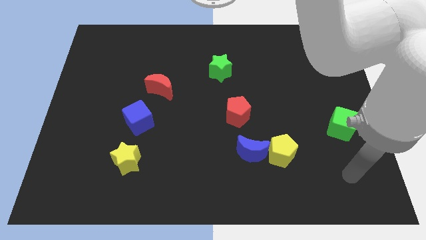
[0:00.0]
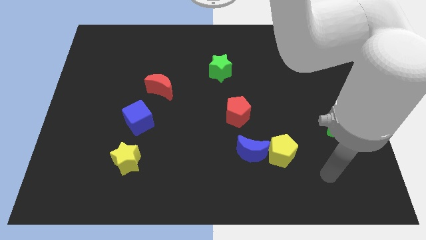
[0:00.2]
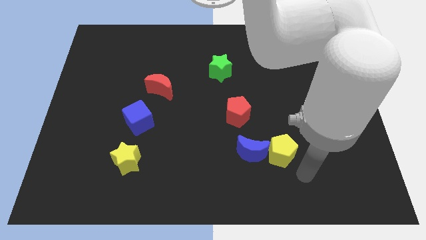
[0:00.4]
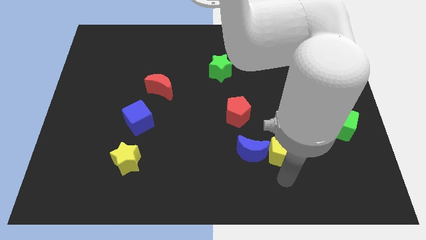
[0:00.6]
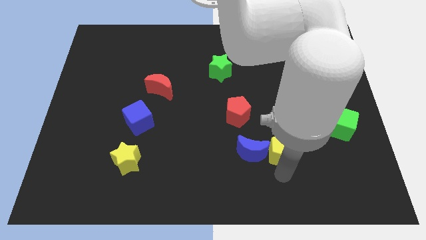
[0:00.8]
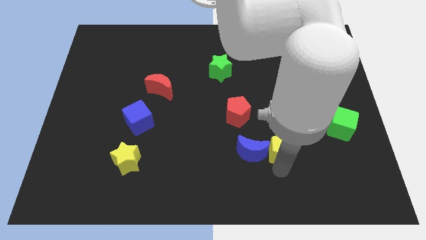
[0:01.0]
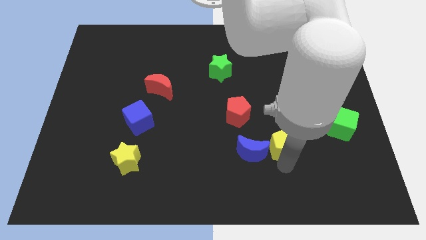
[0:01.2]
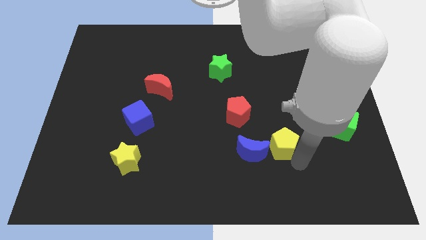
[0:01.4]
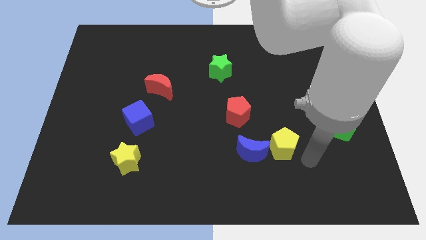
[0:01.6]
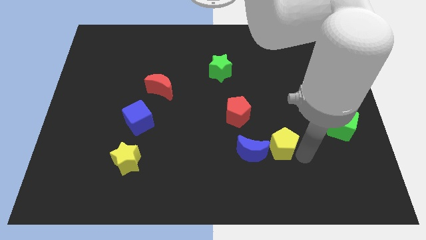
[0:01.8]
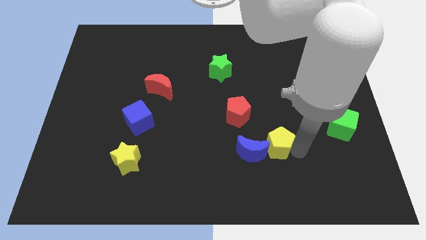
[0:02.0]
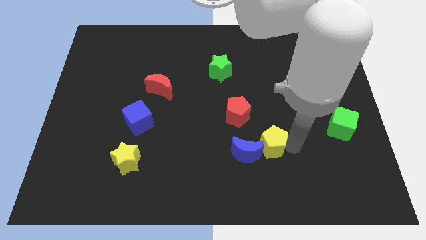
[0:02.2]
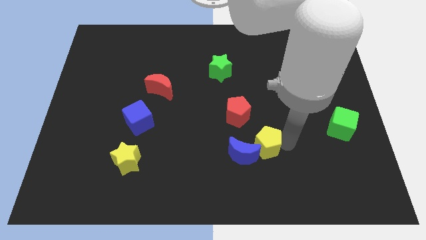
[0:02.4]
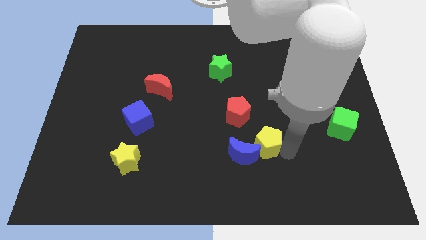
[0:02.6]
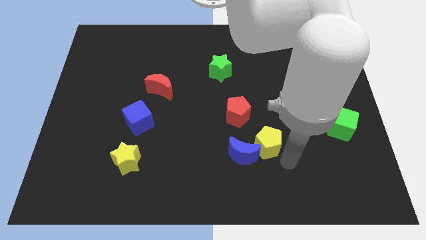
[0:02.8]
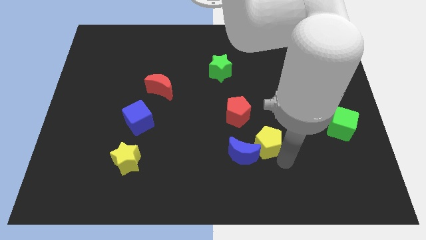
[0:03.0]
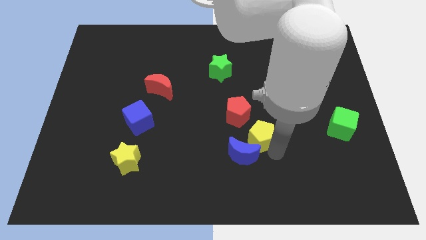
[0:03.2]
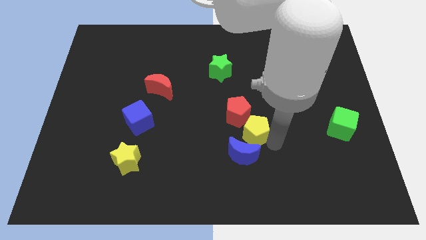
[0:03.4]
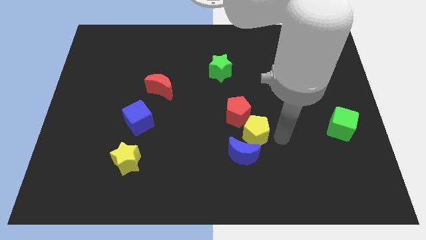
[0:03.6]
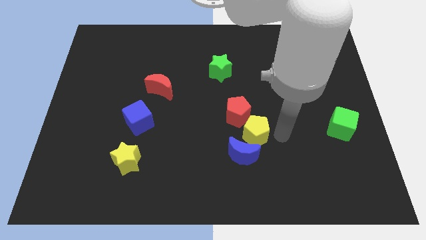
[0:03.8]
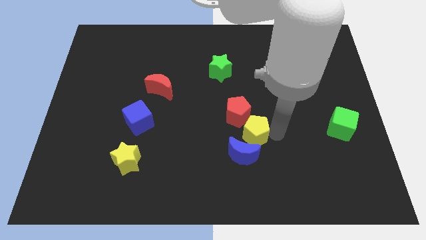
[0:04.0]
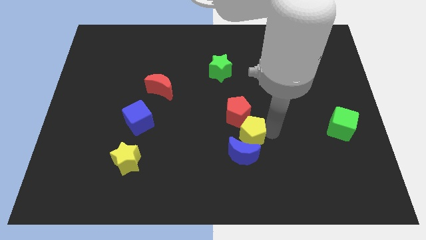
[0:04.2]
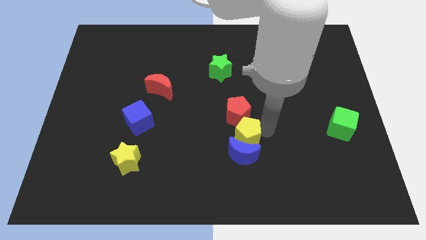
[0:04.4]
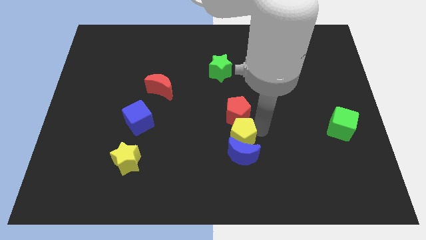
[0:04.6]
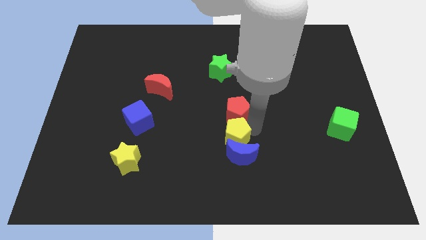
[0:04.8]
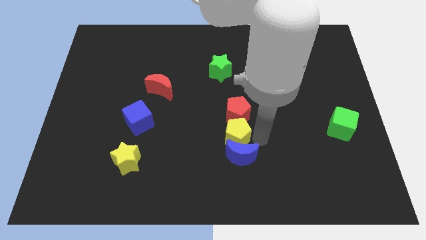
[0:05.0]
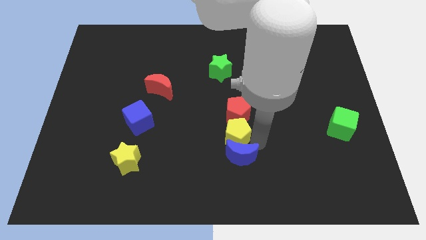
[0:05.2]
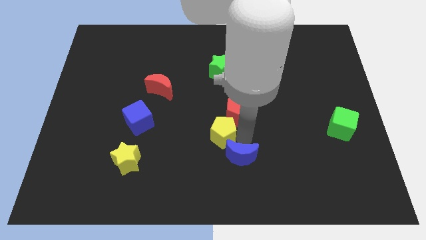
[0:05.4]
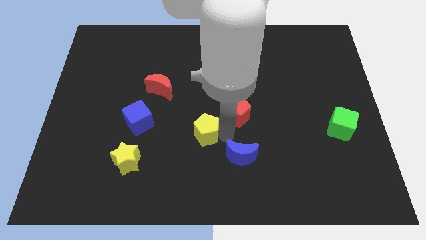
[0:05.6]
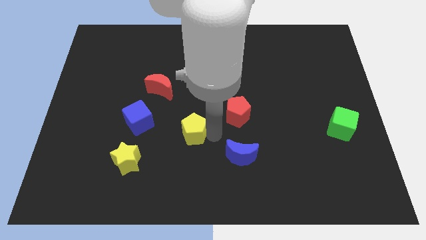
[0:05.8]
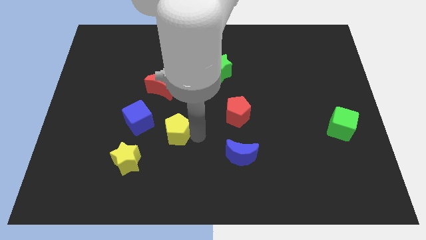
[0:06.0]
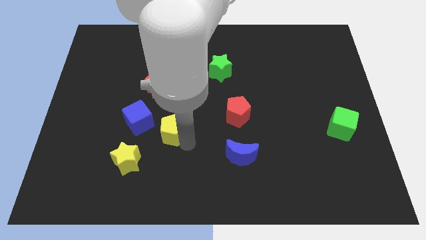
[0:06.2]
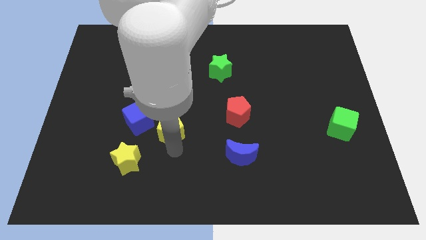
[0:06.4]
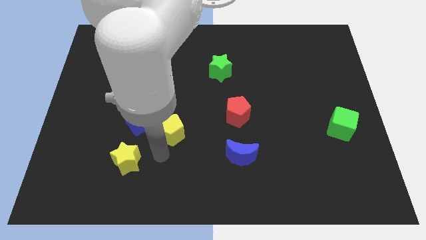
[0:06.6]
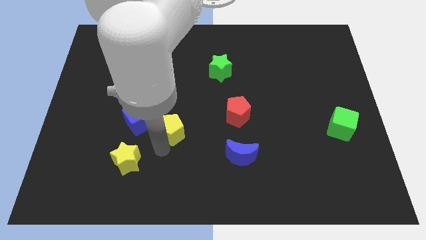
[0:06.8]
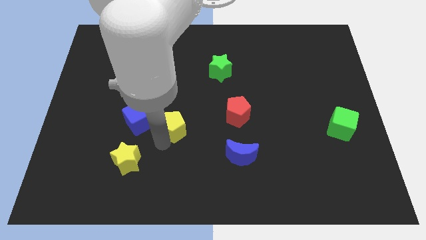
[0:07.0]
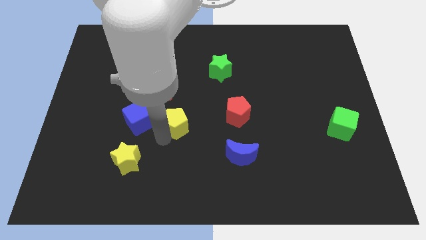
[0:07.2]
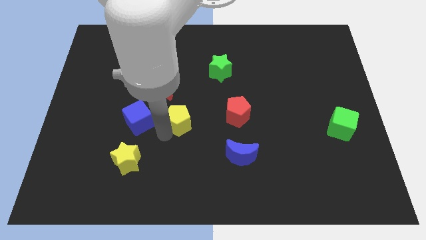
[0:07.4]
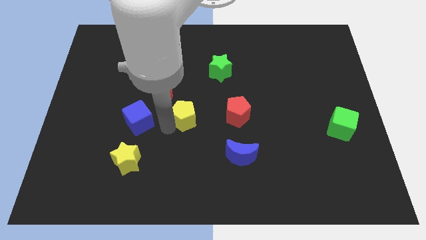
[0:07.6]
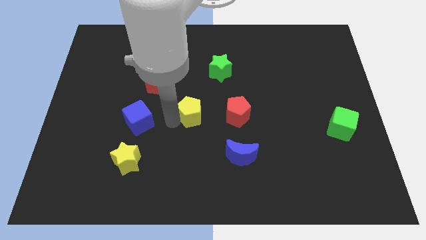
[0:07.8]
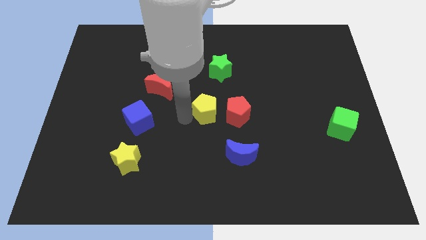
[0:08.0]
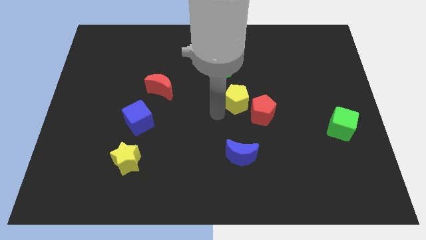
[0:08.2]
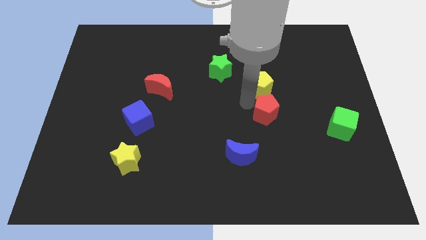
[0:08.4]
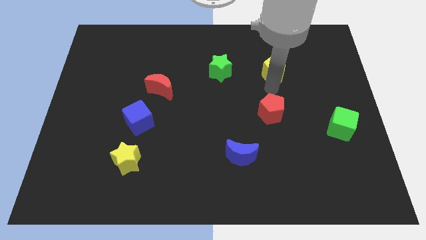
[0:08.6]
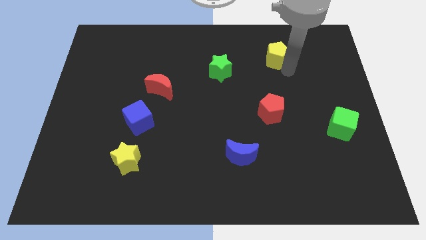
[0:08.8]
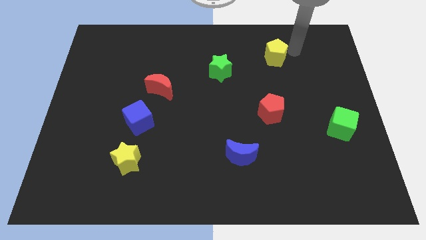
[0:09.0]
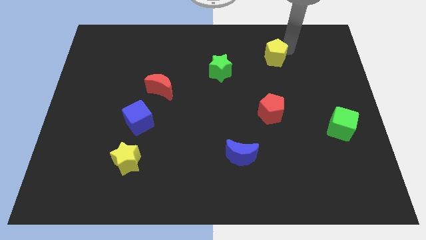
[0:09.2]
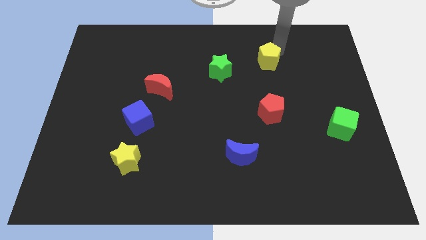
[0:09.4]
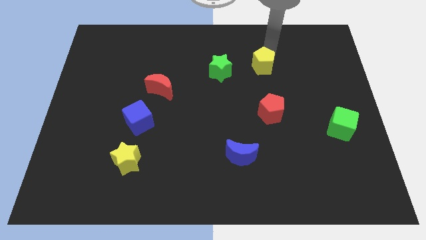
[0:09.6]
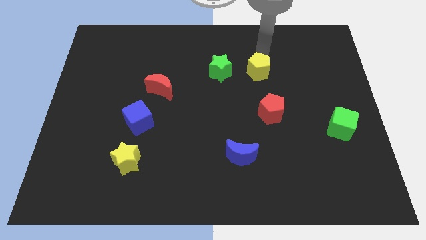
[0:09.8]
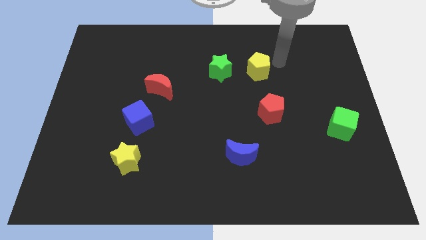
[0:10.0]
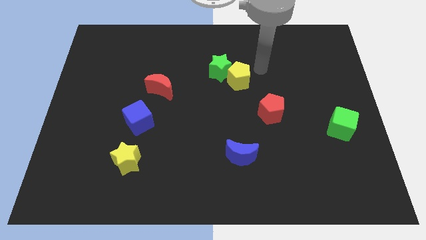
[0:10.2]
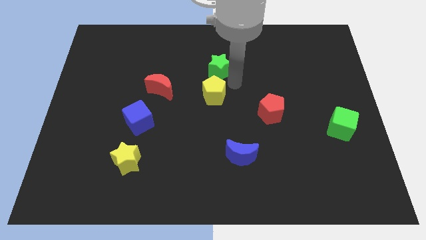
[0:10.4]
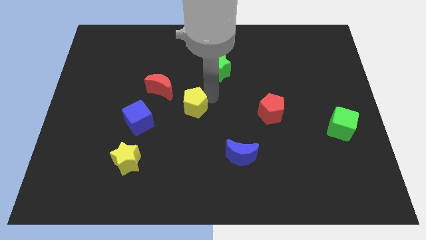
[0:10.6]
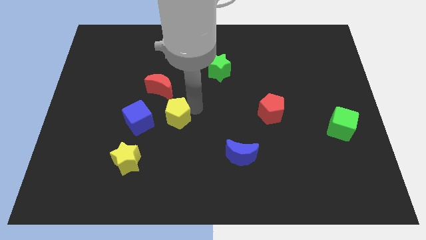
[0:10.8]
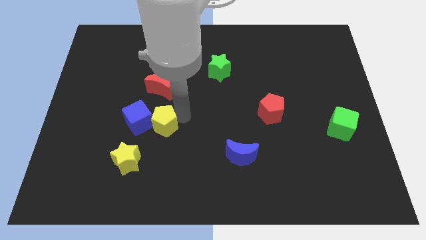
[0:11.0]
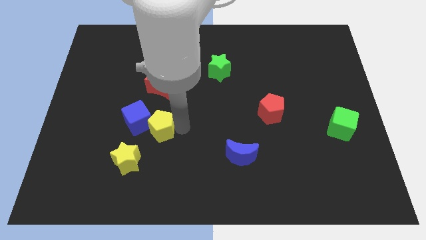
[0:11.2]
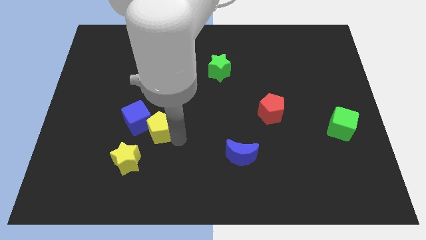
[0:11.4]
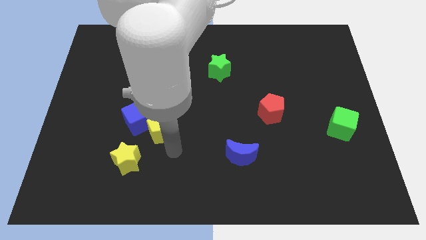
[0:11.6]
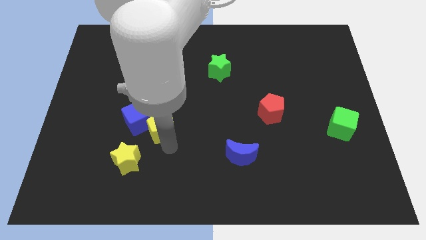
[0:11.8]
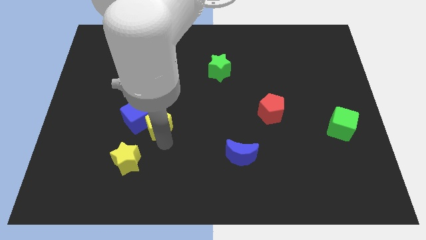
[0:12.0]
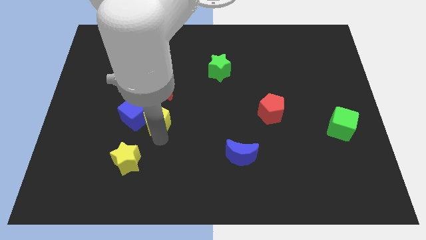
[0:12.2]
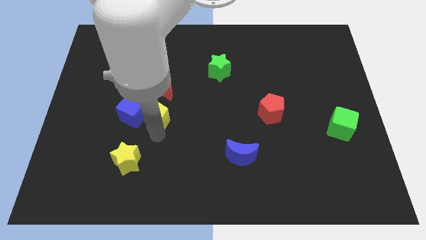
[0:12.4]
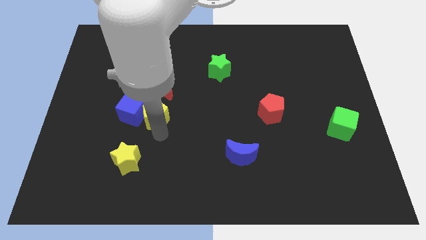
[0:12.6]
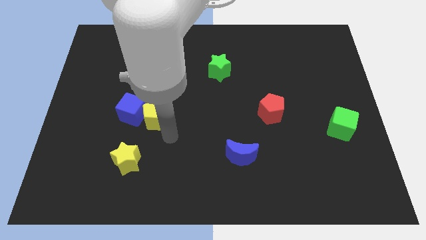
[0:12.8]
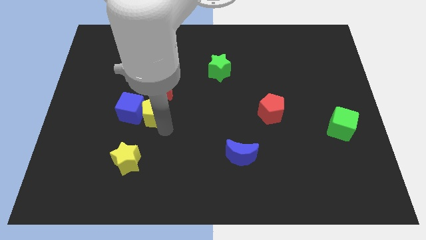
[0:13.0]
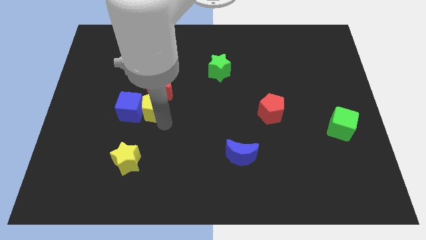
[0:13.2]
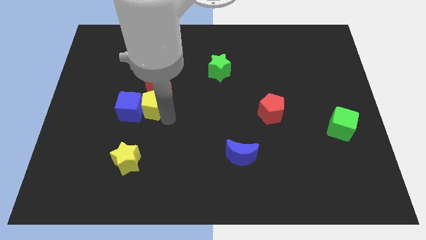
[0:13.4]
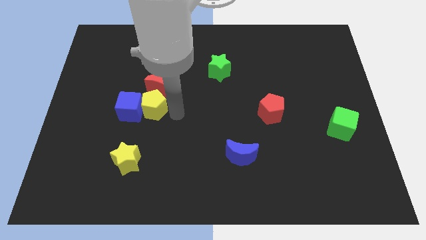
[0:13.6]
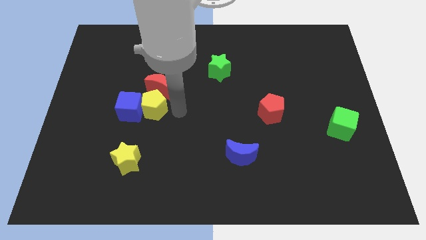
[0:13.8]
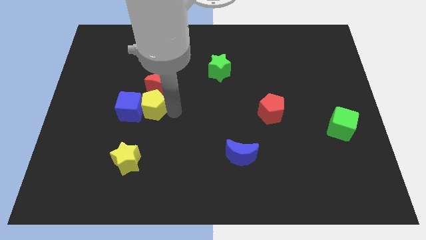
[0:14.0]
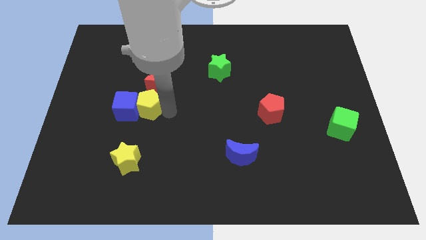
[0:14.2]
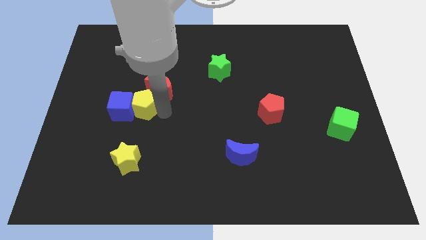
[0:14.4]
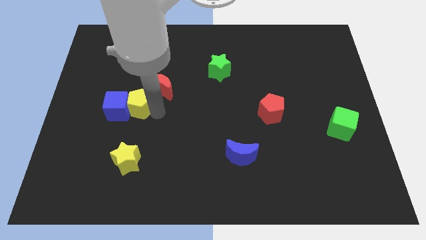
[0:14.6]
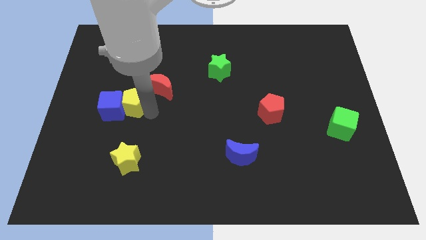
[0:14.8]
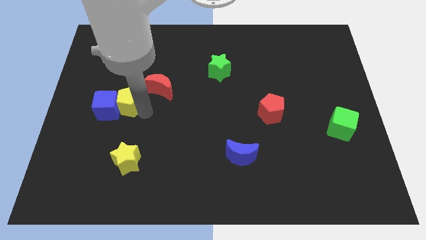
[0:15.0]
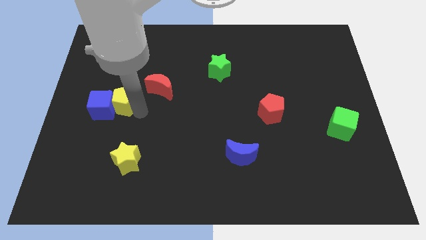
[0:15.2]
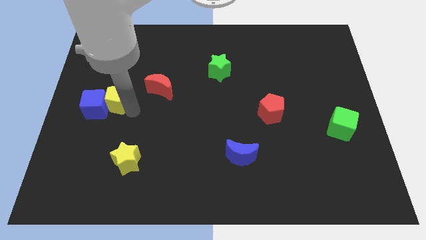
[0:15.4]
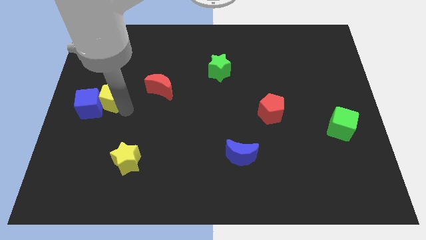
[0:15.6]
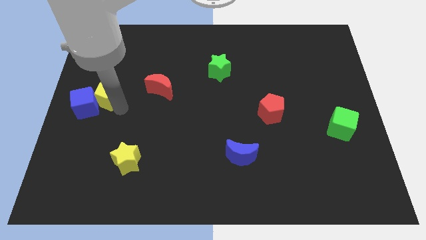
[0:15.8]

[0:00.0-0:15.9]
slide the yellow pentagon to the left side of the board
